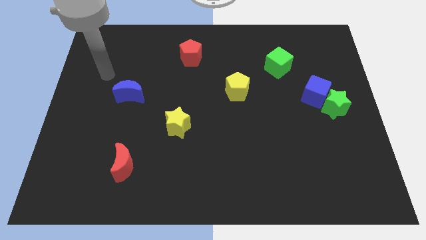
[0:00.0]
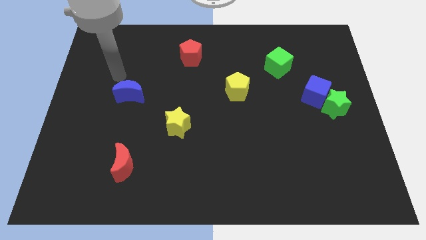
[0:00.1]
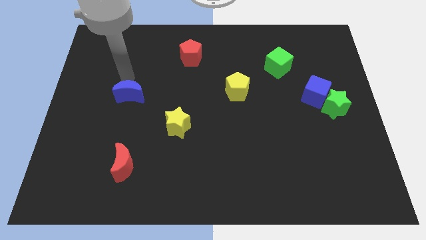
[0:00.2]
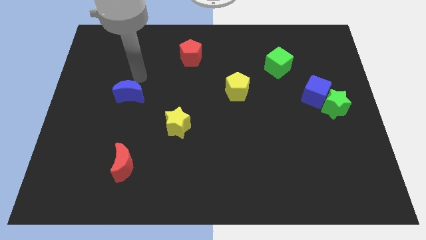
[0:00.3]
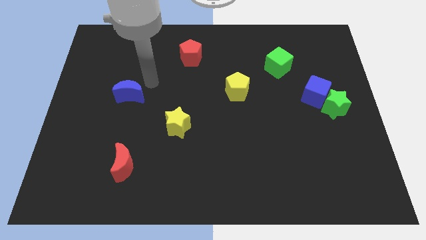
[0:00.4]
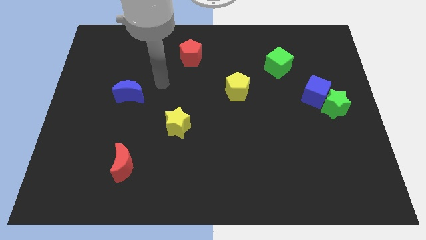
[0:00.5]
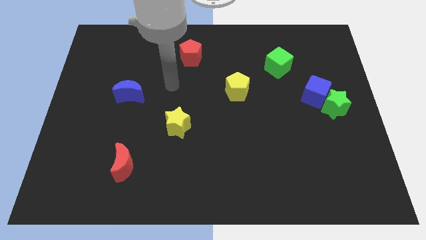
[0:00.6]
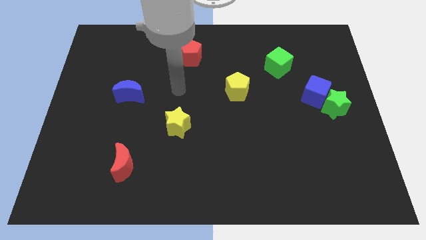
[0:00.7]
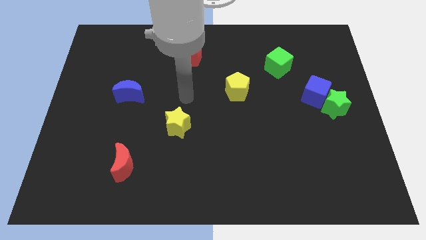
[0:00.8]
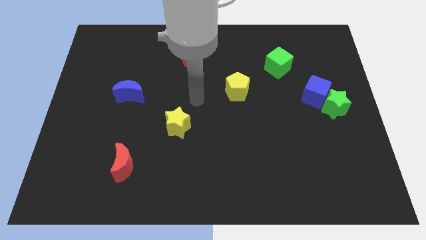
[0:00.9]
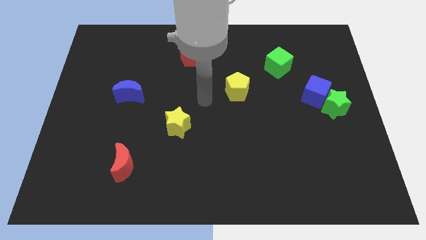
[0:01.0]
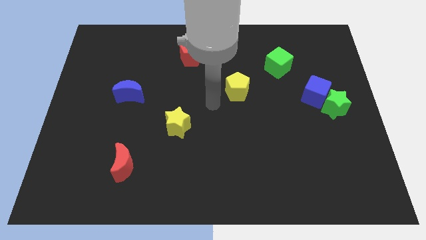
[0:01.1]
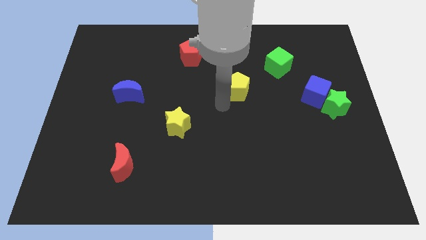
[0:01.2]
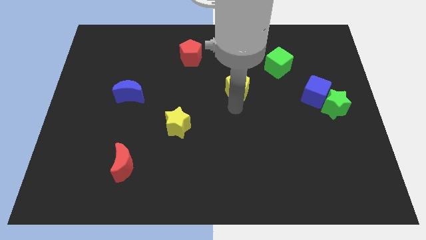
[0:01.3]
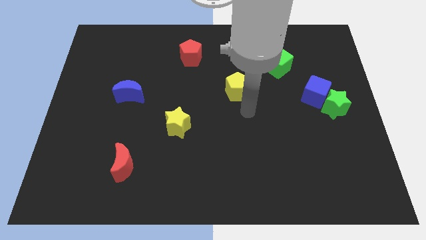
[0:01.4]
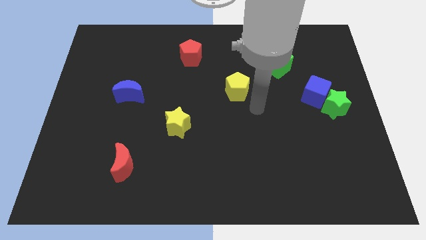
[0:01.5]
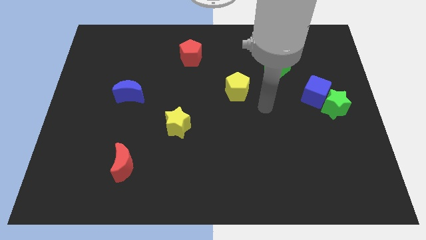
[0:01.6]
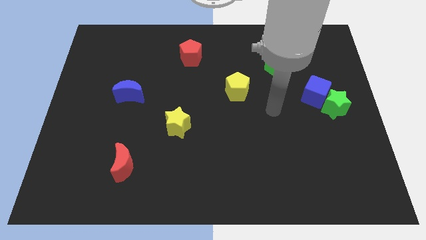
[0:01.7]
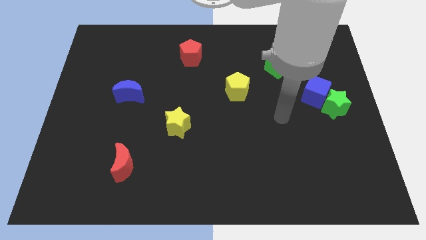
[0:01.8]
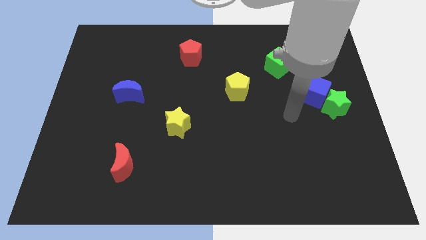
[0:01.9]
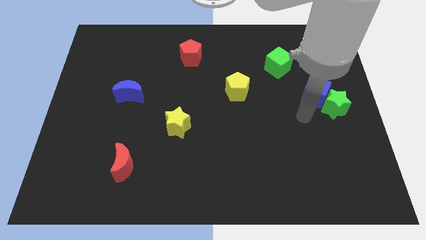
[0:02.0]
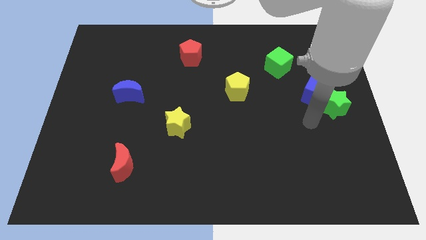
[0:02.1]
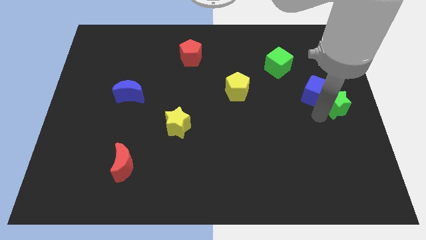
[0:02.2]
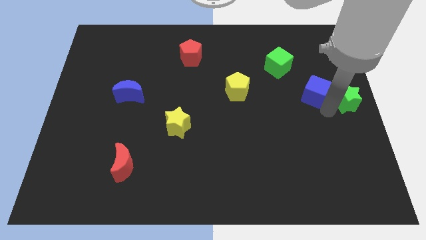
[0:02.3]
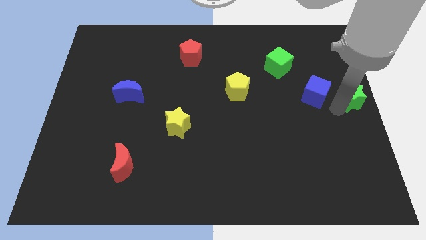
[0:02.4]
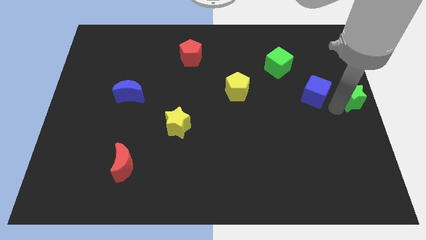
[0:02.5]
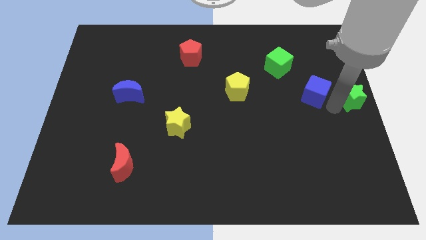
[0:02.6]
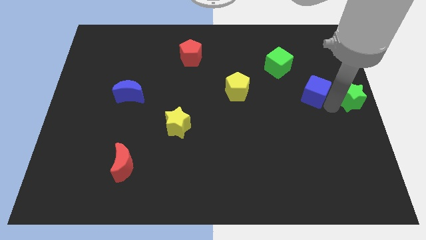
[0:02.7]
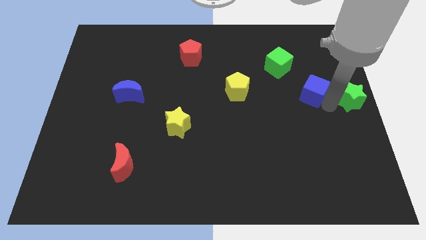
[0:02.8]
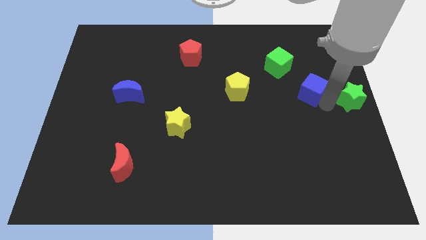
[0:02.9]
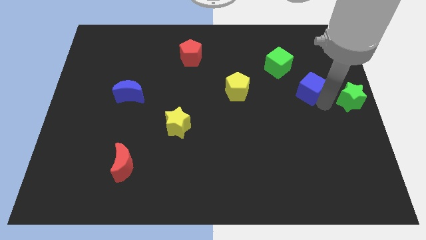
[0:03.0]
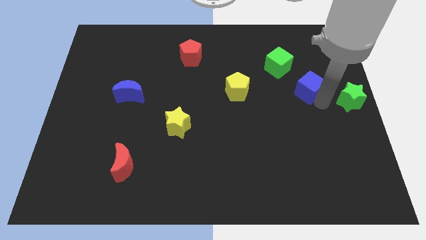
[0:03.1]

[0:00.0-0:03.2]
move the blue cube away from the green star

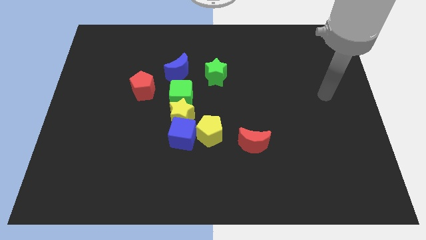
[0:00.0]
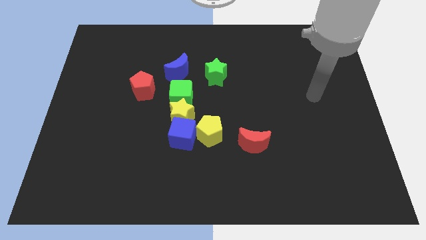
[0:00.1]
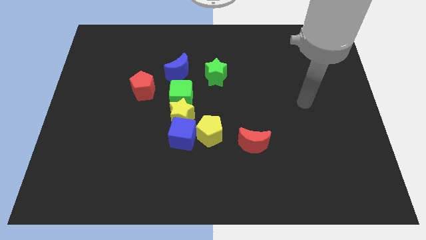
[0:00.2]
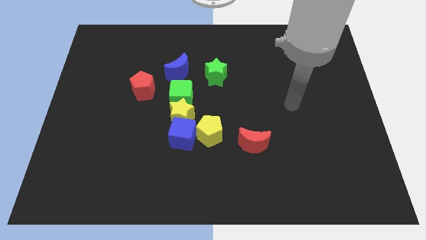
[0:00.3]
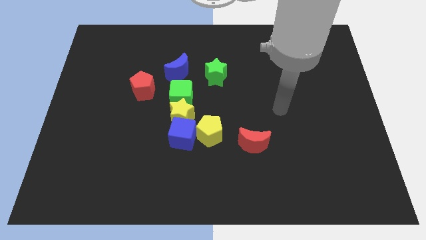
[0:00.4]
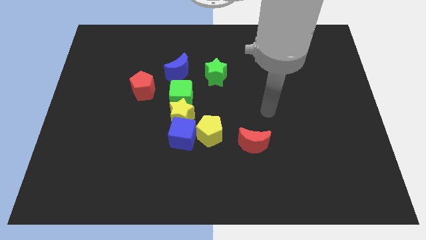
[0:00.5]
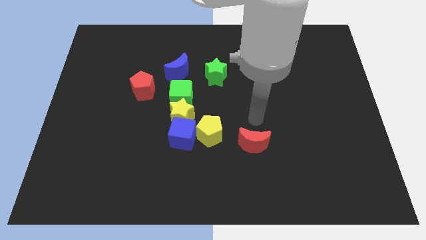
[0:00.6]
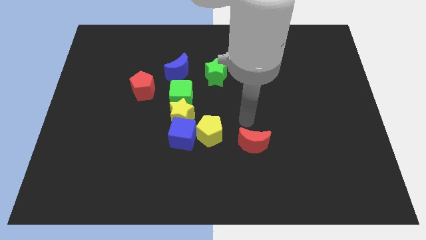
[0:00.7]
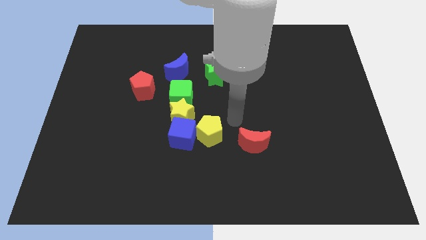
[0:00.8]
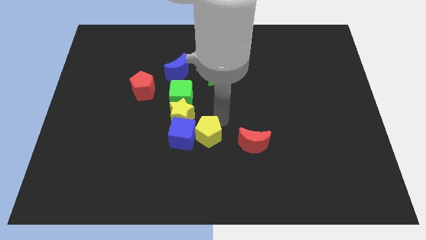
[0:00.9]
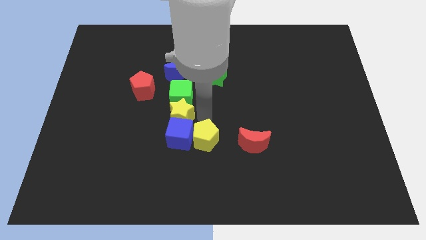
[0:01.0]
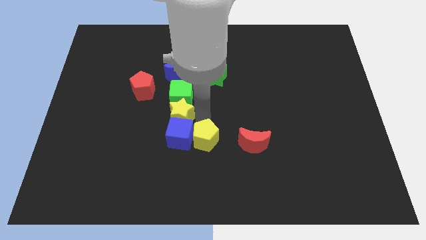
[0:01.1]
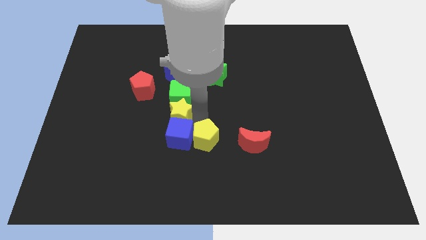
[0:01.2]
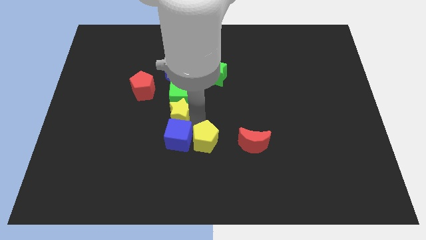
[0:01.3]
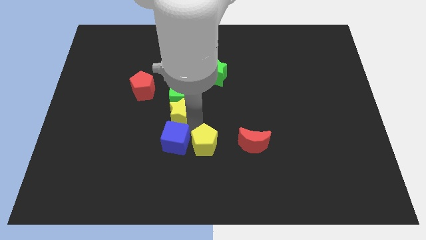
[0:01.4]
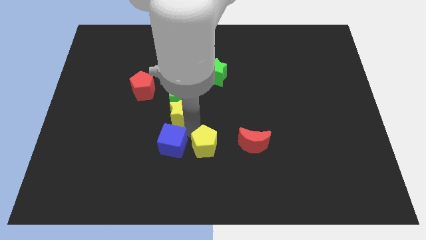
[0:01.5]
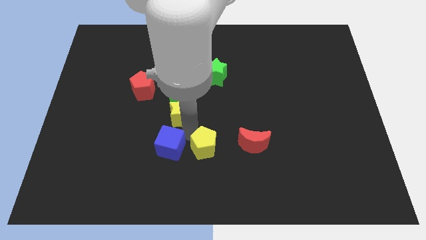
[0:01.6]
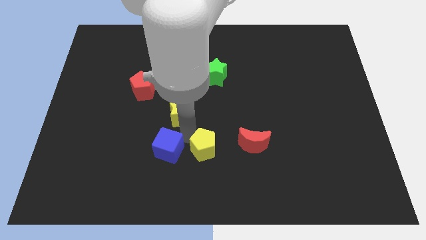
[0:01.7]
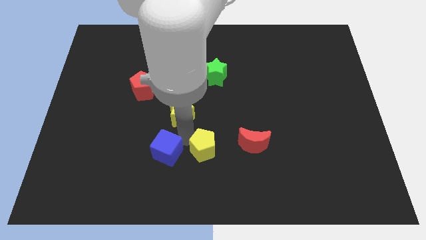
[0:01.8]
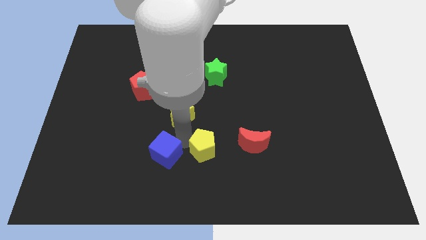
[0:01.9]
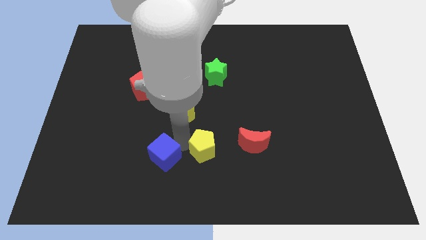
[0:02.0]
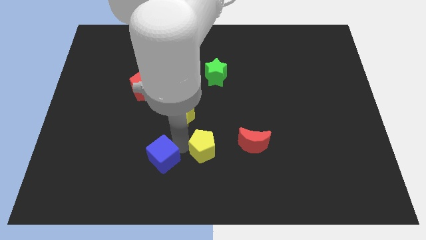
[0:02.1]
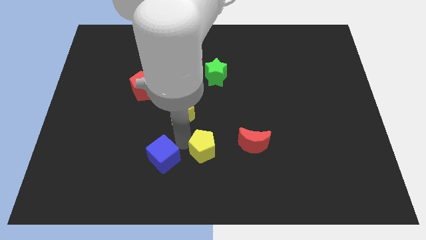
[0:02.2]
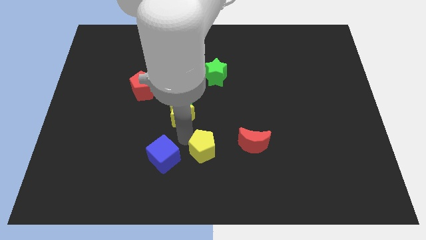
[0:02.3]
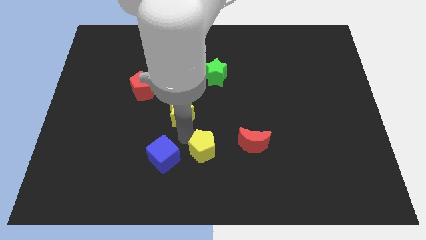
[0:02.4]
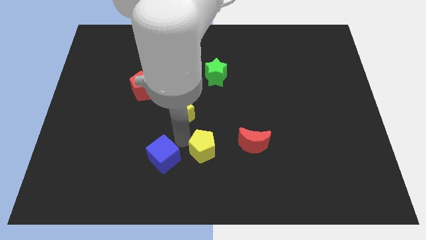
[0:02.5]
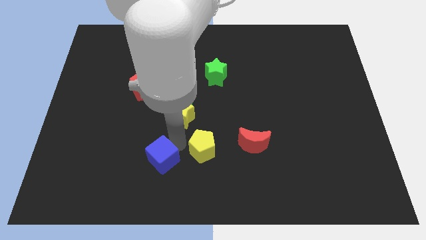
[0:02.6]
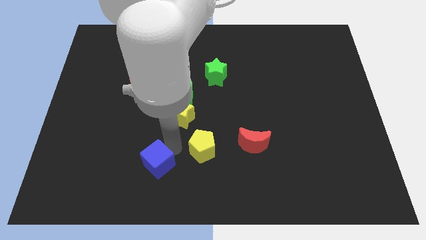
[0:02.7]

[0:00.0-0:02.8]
move the blue cube away from the yellow star and yellow pentagon

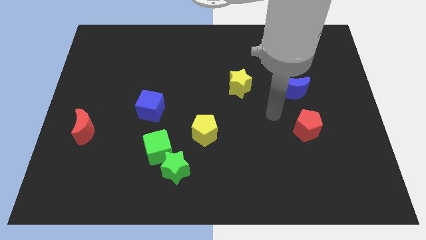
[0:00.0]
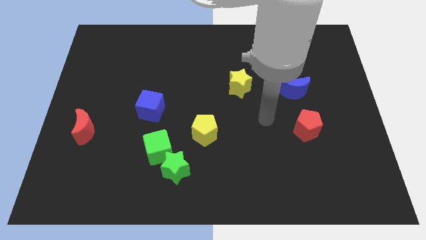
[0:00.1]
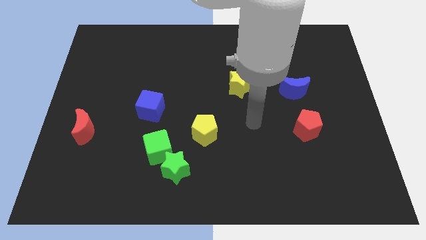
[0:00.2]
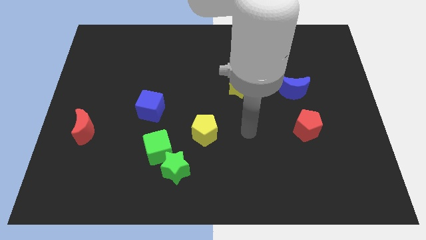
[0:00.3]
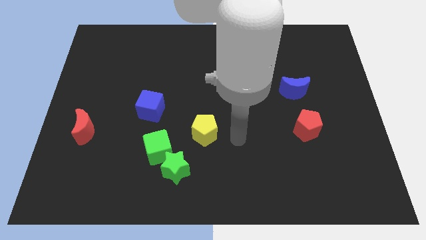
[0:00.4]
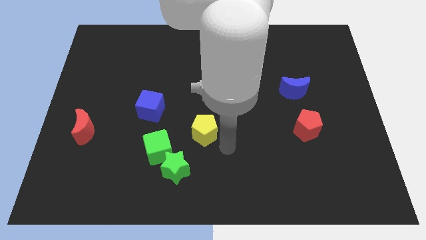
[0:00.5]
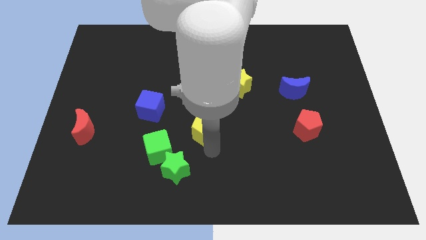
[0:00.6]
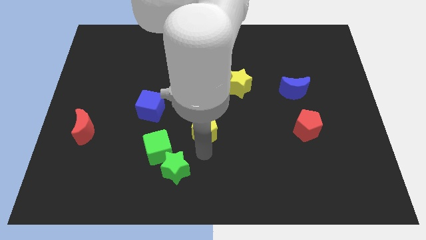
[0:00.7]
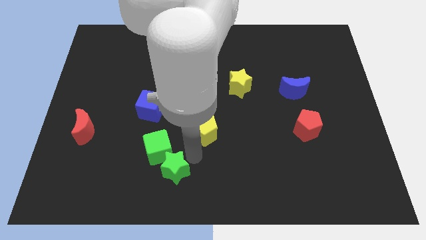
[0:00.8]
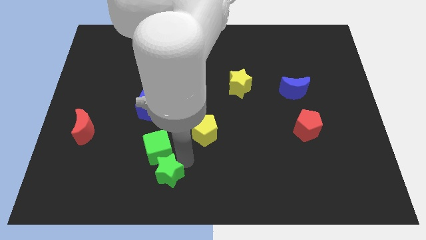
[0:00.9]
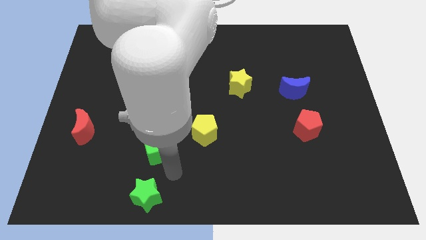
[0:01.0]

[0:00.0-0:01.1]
separate the green cube from the green star

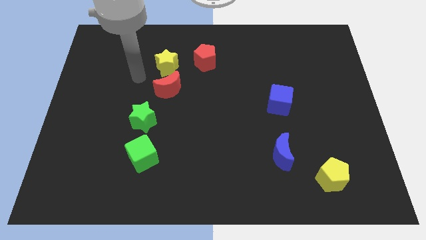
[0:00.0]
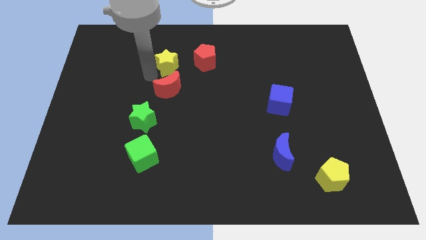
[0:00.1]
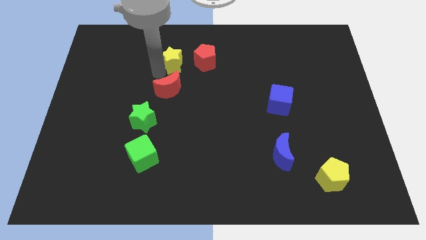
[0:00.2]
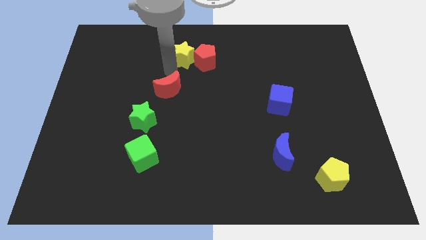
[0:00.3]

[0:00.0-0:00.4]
pull the red moon apart from the yellow star

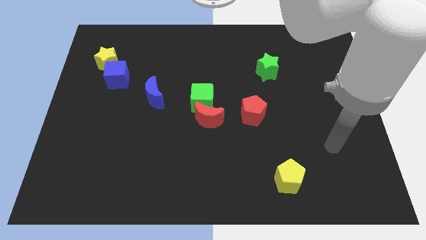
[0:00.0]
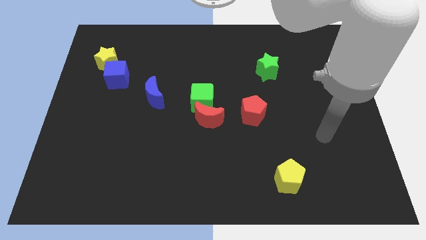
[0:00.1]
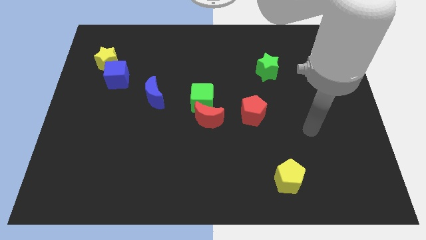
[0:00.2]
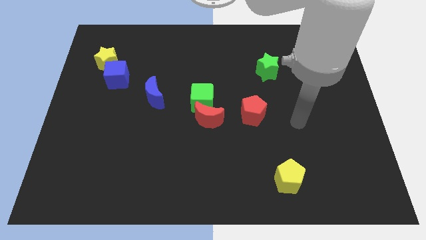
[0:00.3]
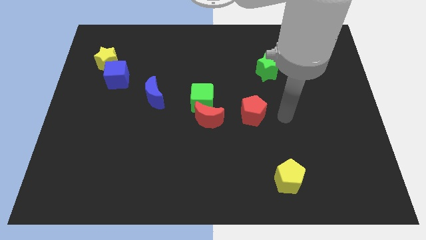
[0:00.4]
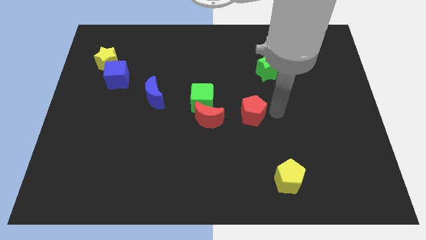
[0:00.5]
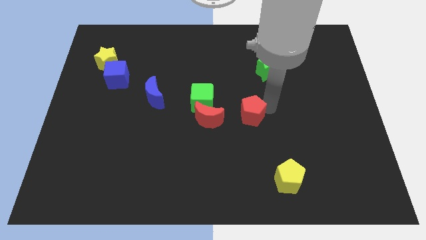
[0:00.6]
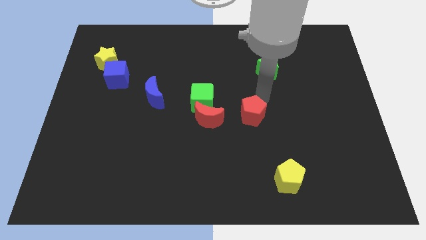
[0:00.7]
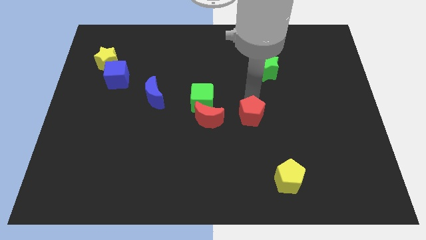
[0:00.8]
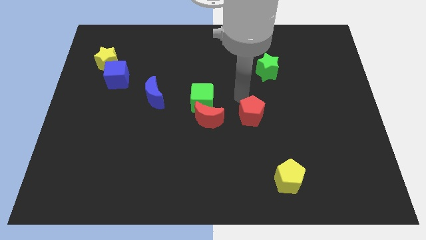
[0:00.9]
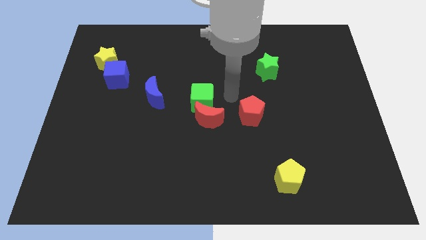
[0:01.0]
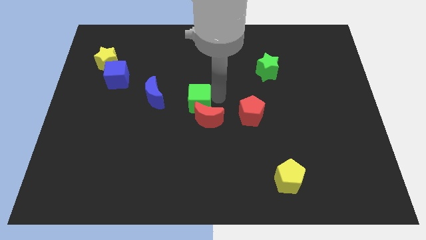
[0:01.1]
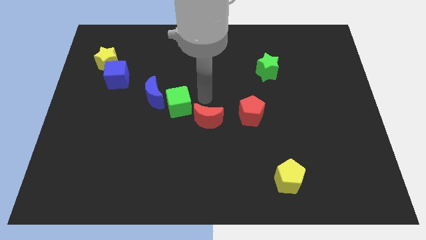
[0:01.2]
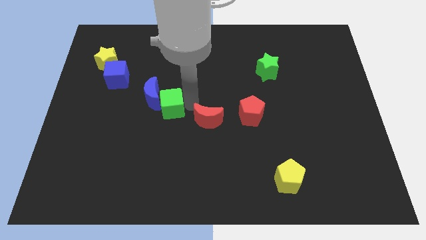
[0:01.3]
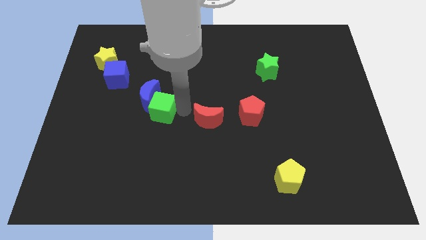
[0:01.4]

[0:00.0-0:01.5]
separate the red moon from the green cube

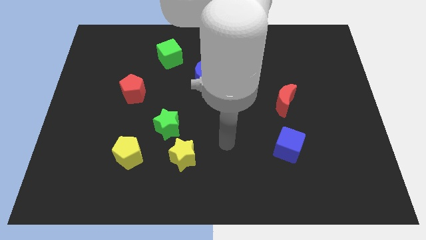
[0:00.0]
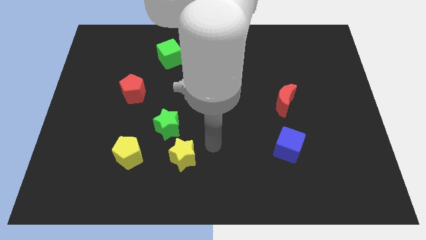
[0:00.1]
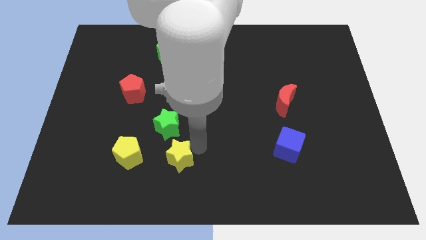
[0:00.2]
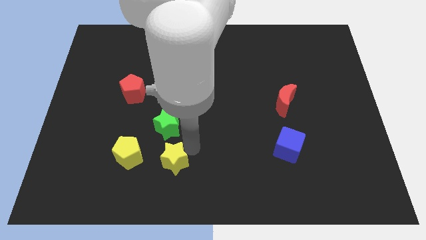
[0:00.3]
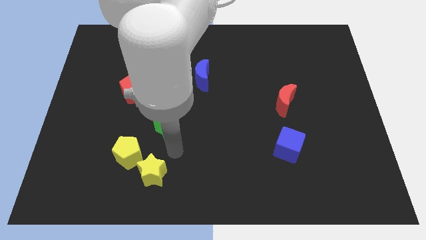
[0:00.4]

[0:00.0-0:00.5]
separate the green star from the yellow star
